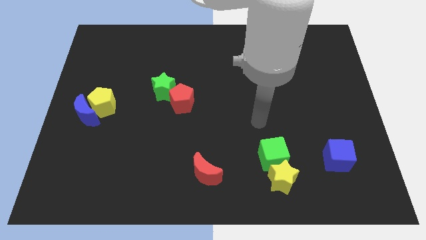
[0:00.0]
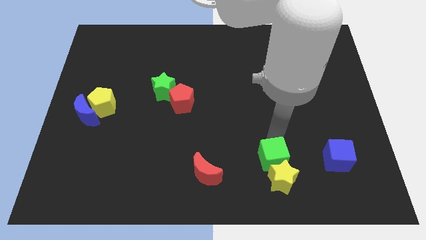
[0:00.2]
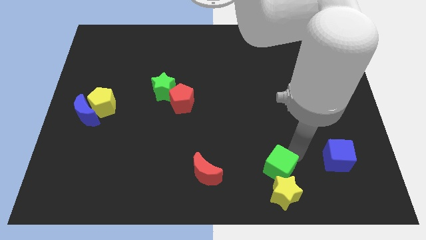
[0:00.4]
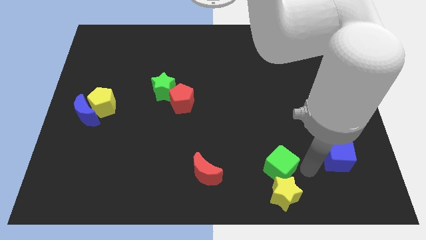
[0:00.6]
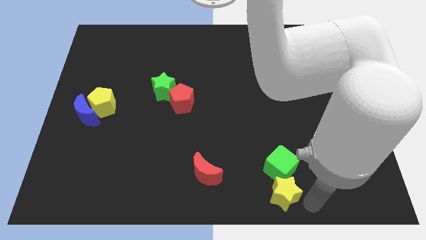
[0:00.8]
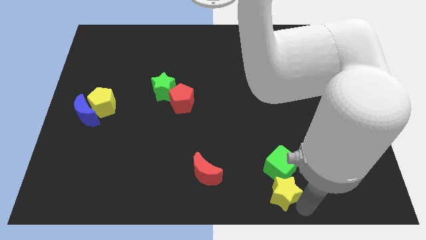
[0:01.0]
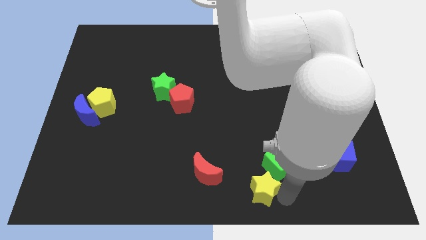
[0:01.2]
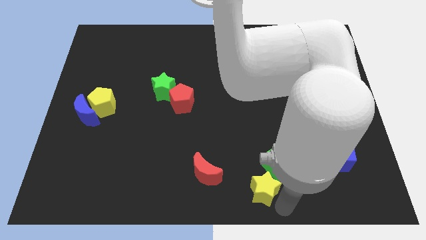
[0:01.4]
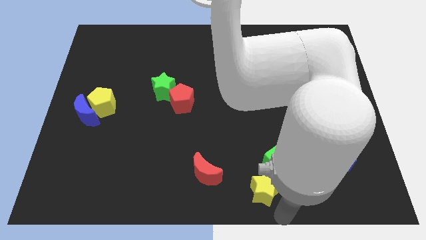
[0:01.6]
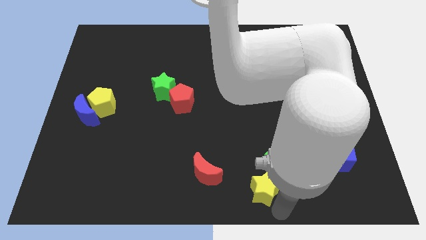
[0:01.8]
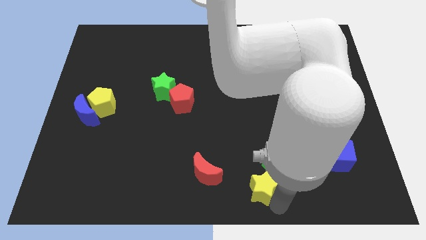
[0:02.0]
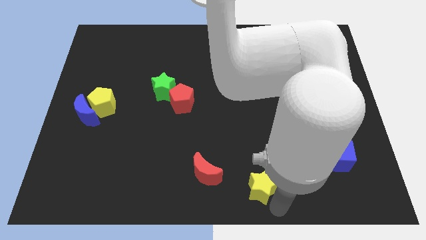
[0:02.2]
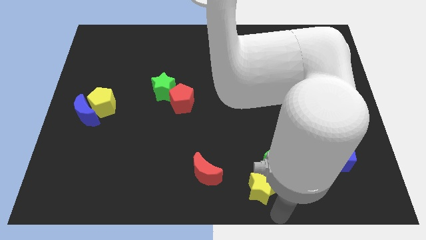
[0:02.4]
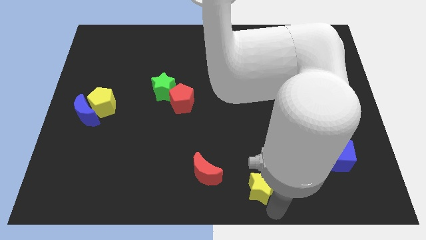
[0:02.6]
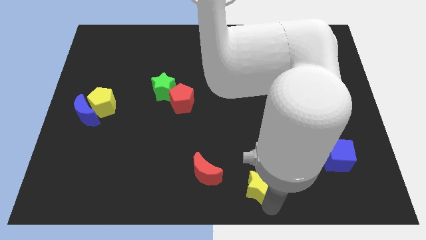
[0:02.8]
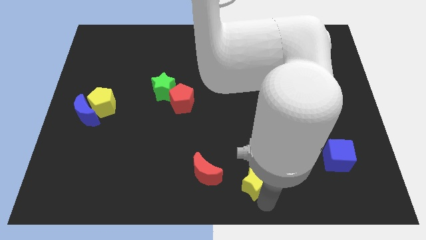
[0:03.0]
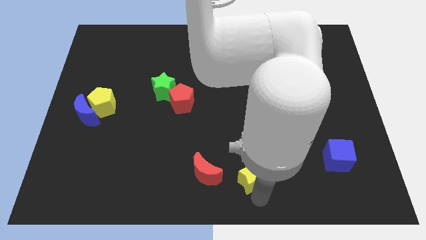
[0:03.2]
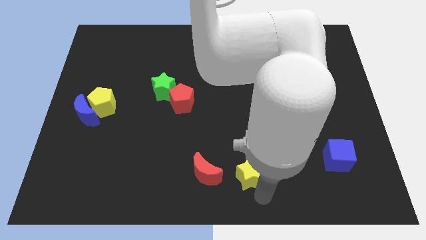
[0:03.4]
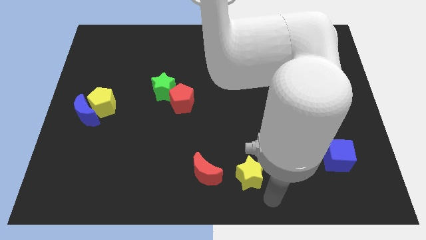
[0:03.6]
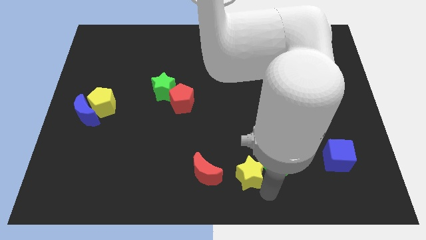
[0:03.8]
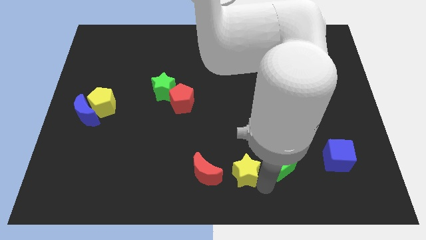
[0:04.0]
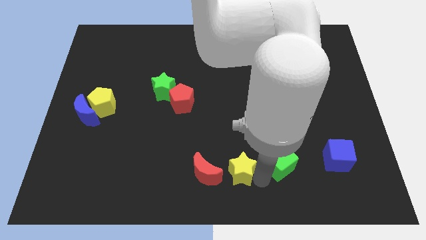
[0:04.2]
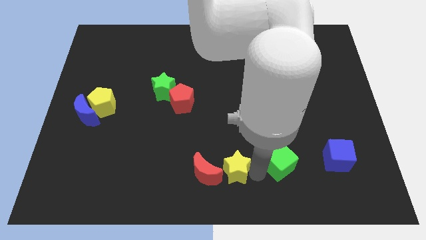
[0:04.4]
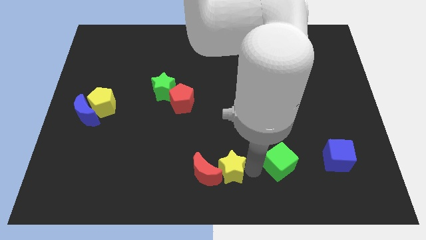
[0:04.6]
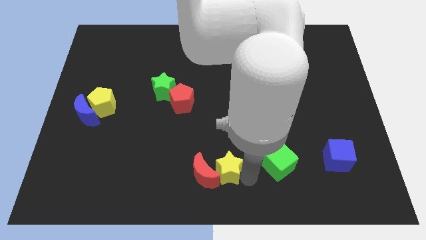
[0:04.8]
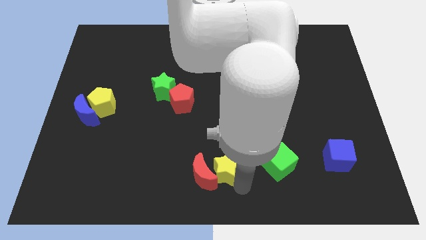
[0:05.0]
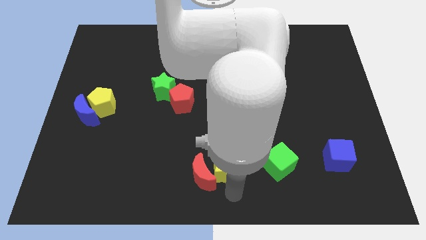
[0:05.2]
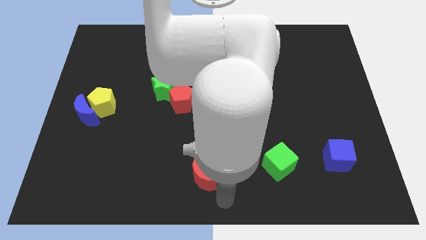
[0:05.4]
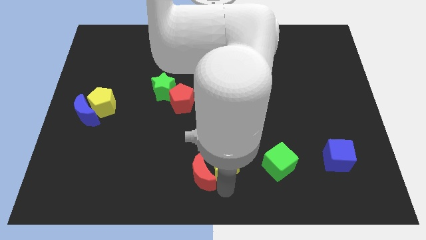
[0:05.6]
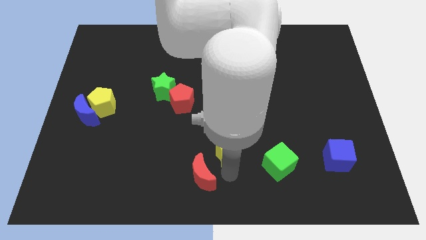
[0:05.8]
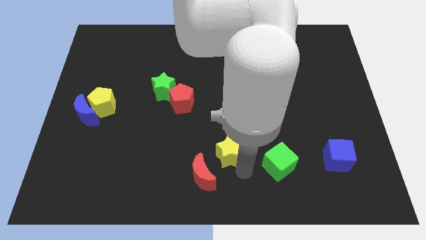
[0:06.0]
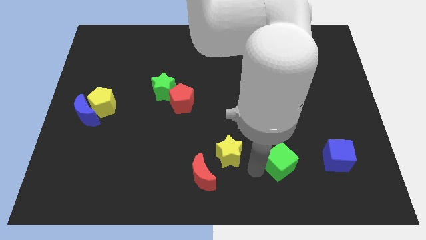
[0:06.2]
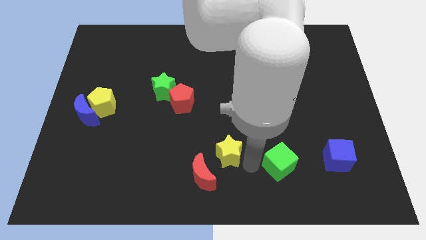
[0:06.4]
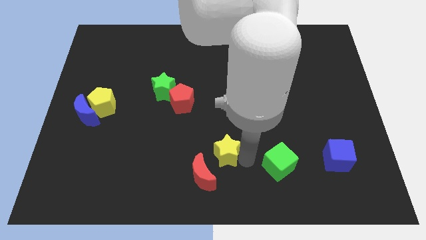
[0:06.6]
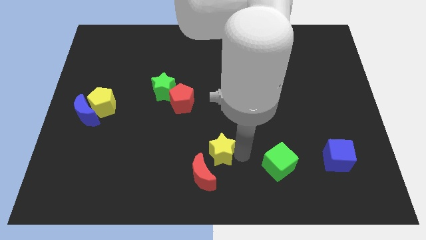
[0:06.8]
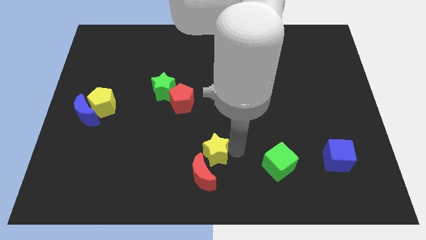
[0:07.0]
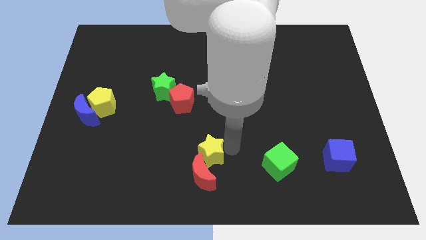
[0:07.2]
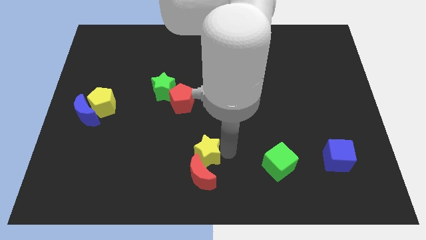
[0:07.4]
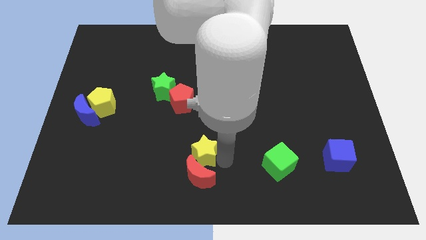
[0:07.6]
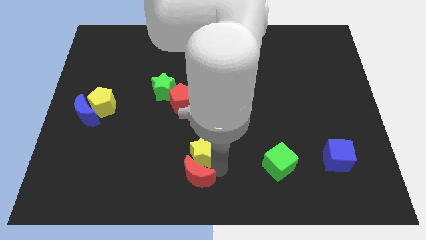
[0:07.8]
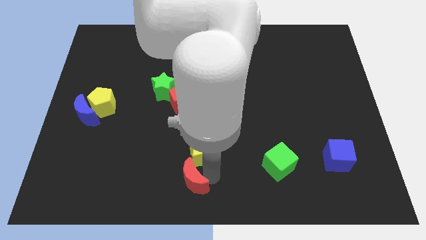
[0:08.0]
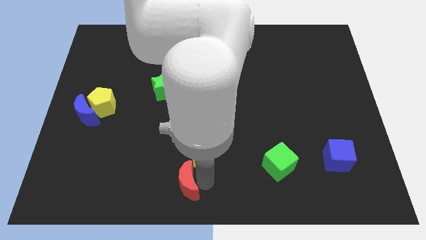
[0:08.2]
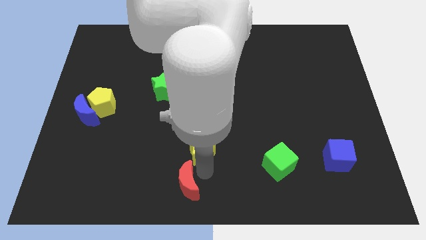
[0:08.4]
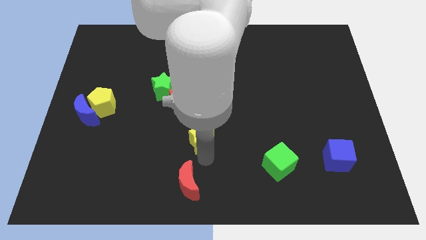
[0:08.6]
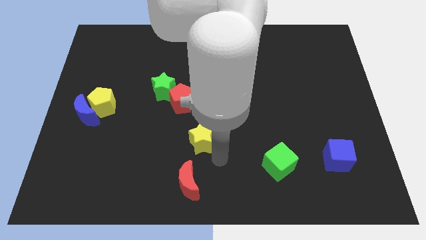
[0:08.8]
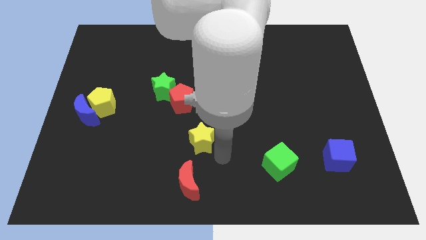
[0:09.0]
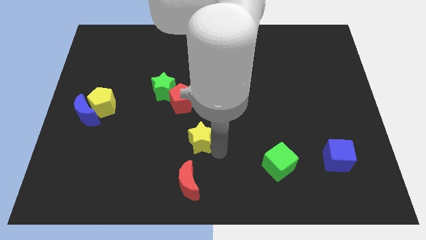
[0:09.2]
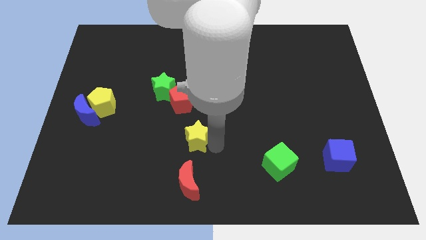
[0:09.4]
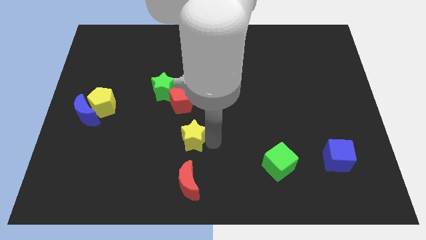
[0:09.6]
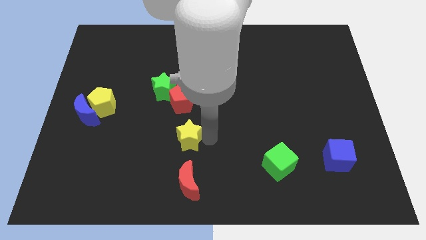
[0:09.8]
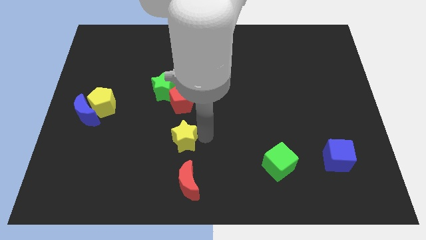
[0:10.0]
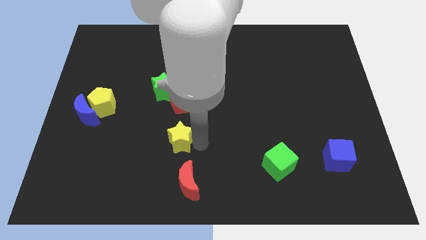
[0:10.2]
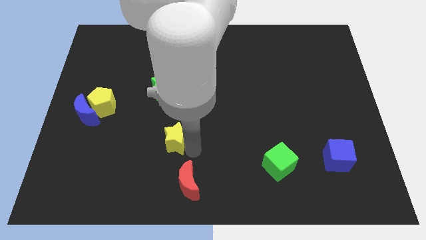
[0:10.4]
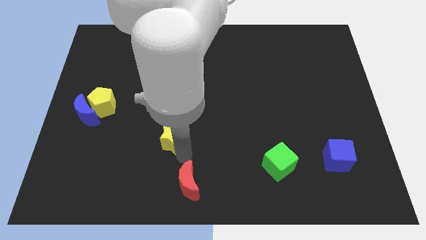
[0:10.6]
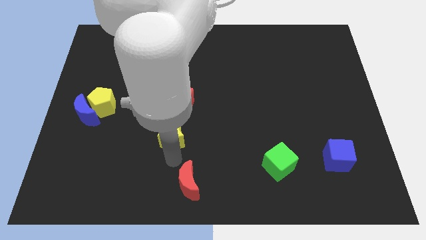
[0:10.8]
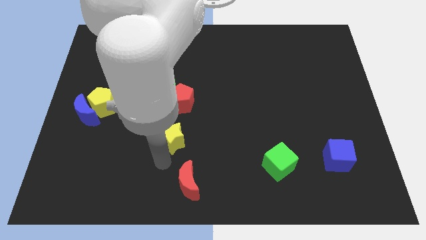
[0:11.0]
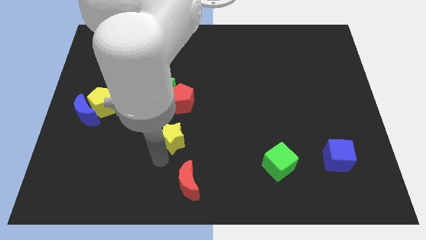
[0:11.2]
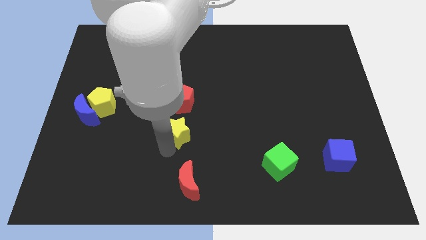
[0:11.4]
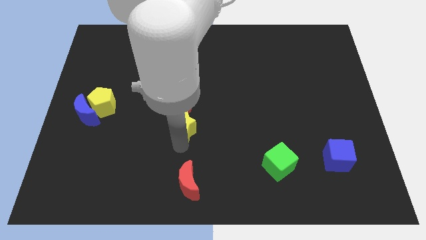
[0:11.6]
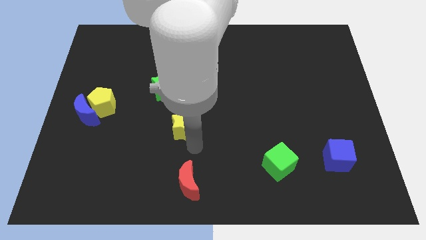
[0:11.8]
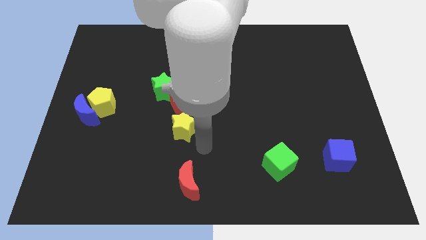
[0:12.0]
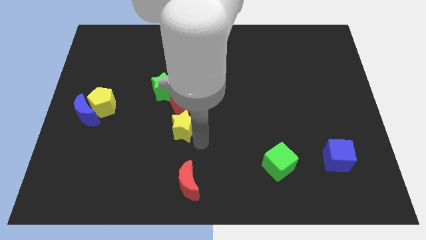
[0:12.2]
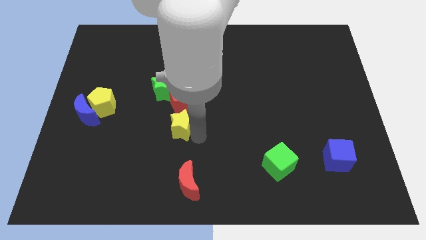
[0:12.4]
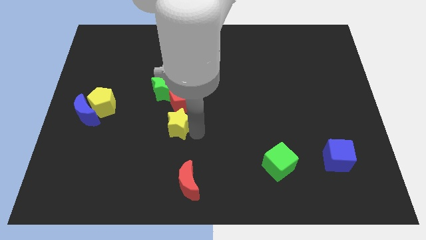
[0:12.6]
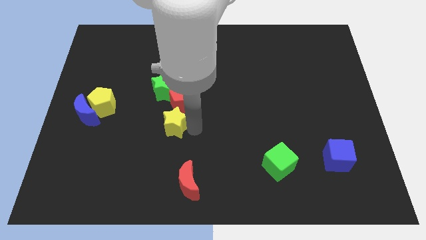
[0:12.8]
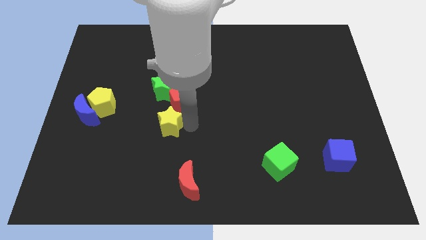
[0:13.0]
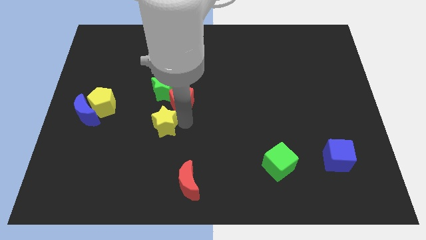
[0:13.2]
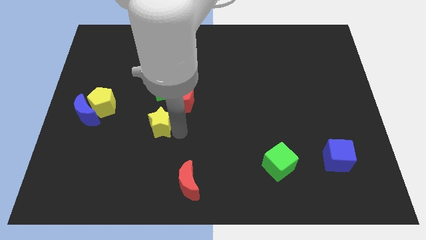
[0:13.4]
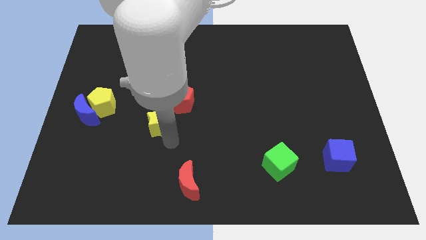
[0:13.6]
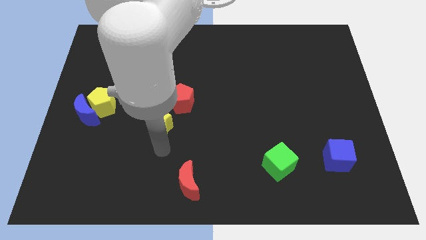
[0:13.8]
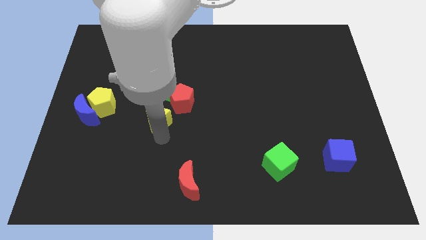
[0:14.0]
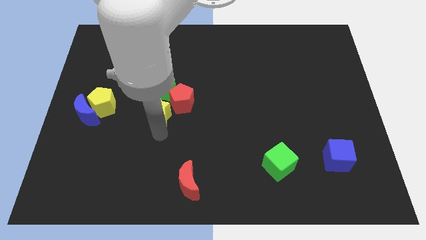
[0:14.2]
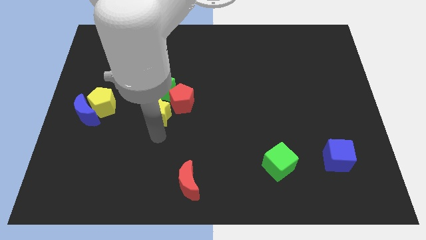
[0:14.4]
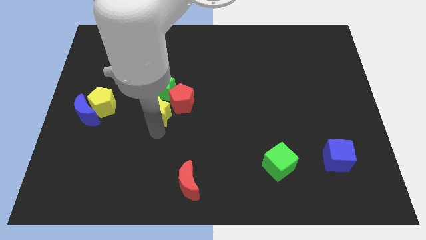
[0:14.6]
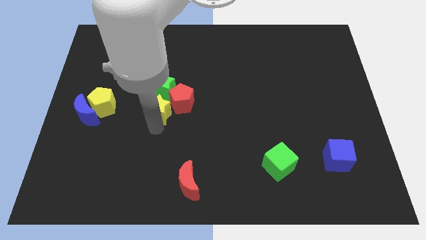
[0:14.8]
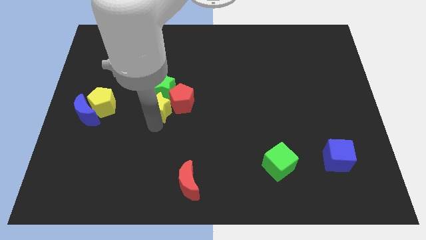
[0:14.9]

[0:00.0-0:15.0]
move the yellow star close to the green star
